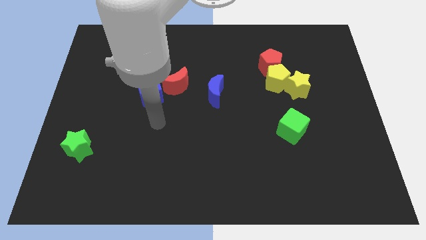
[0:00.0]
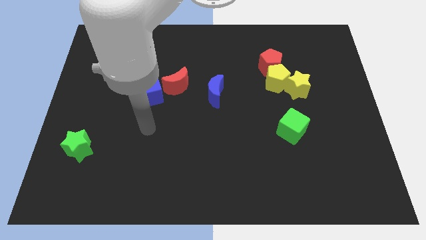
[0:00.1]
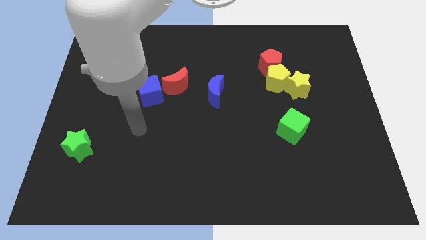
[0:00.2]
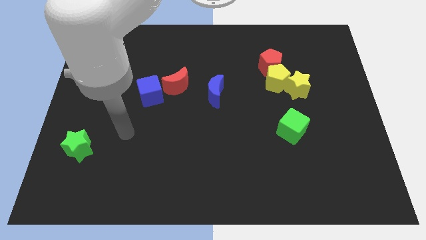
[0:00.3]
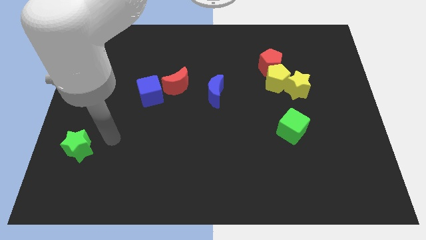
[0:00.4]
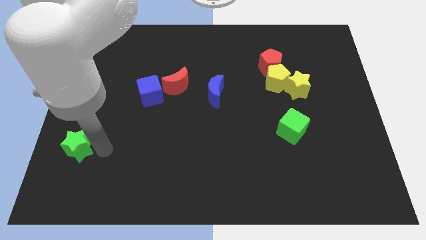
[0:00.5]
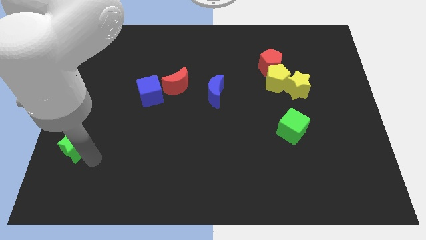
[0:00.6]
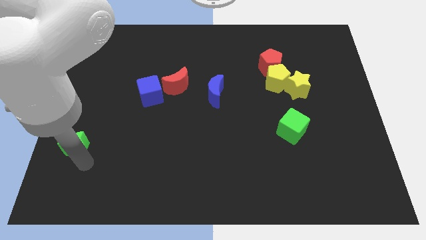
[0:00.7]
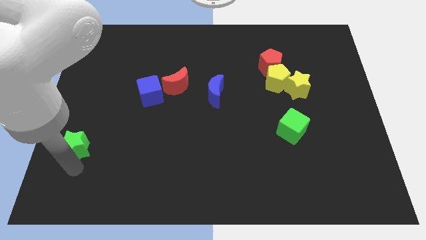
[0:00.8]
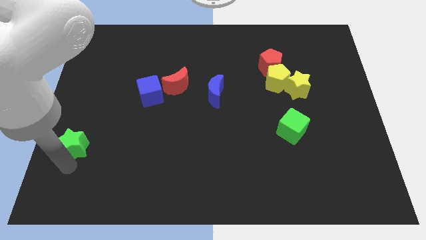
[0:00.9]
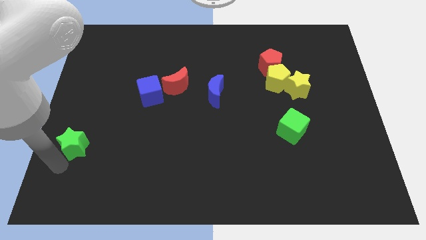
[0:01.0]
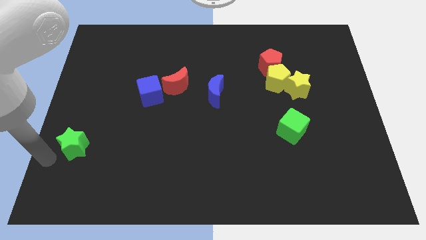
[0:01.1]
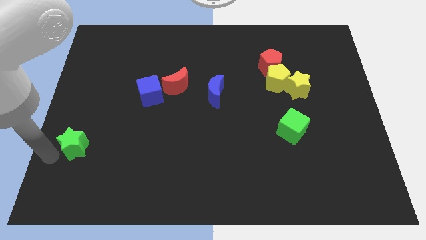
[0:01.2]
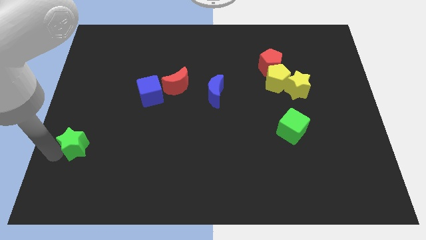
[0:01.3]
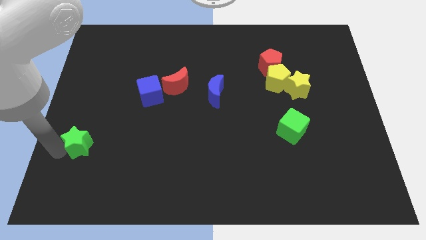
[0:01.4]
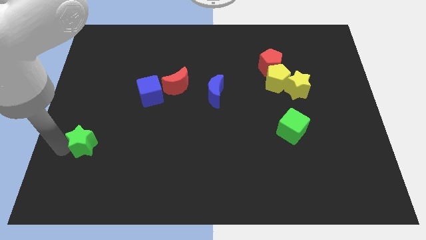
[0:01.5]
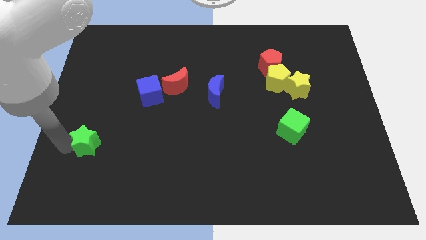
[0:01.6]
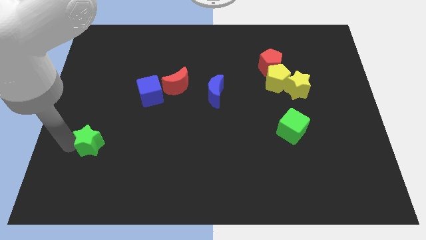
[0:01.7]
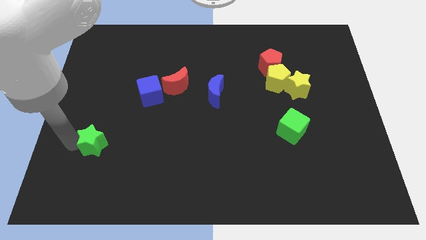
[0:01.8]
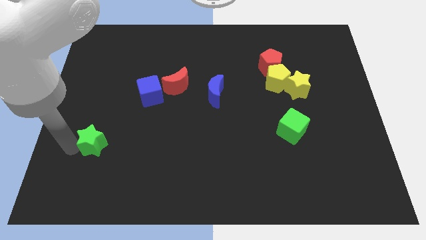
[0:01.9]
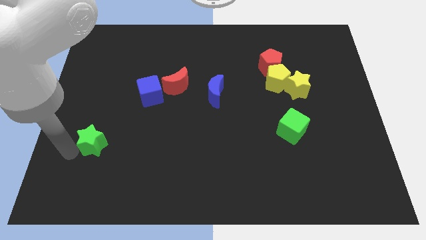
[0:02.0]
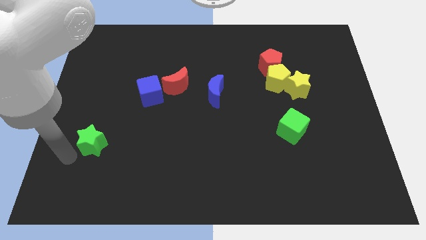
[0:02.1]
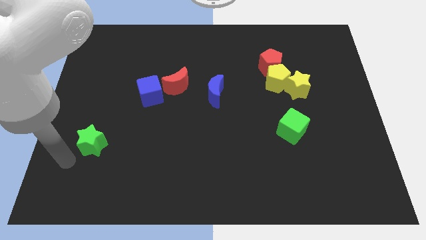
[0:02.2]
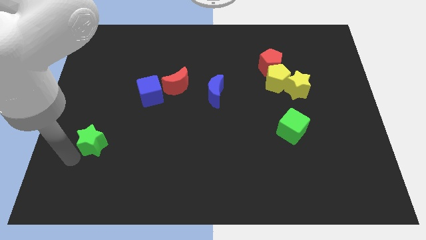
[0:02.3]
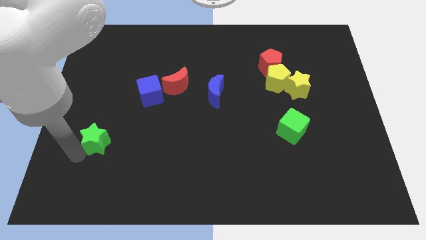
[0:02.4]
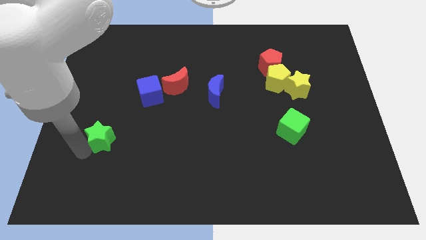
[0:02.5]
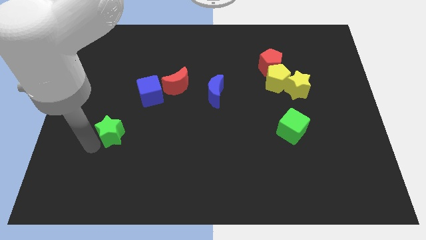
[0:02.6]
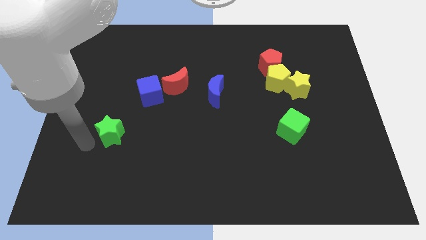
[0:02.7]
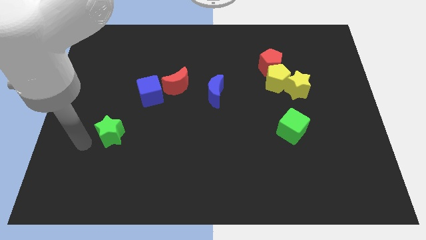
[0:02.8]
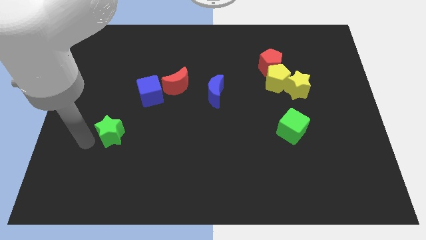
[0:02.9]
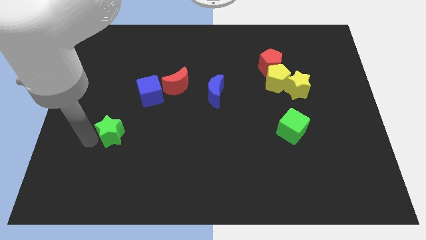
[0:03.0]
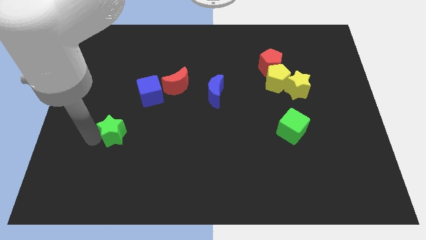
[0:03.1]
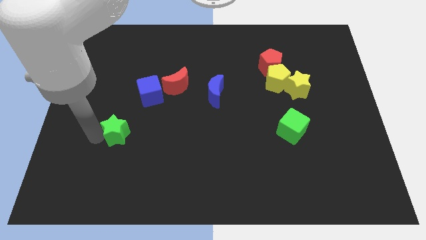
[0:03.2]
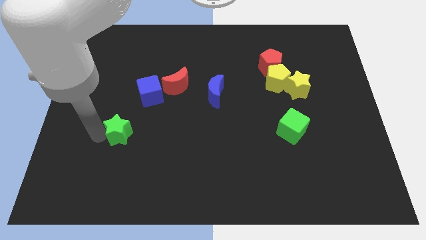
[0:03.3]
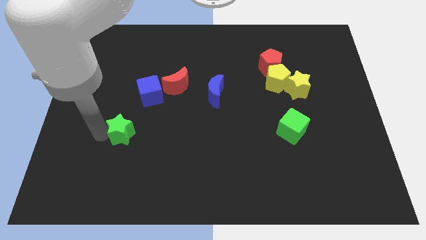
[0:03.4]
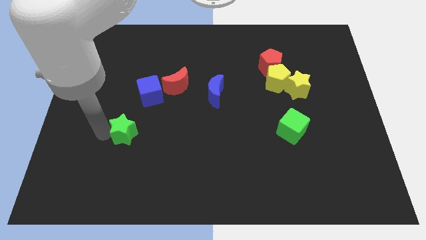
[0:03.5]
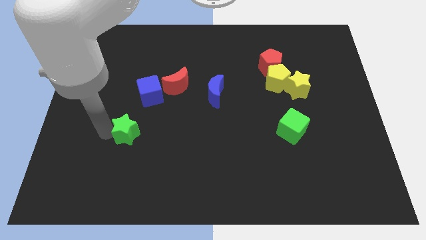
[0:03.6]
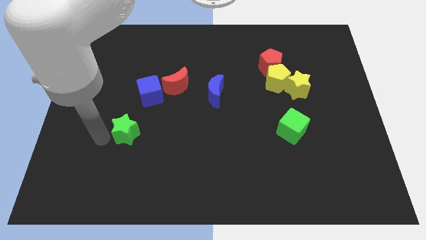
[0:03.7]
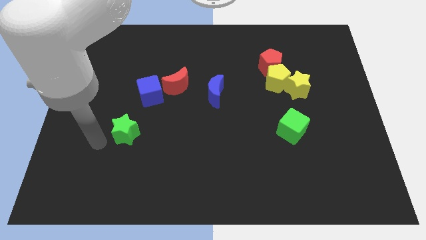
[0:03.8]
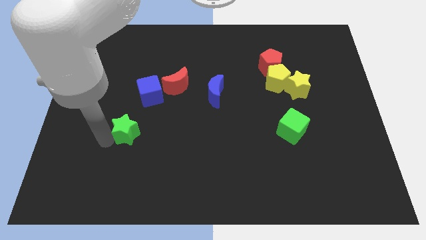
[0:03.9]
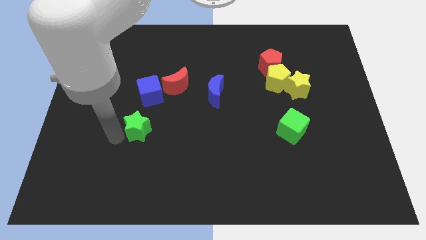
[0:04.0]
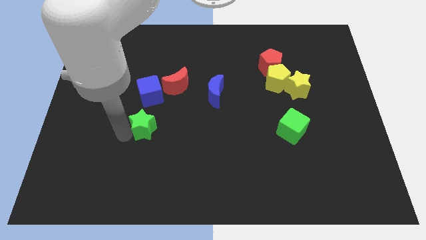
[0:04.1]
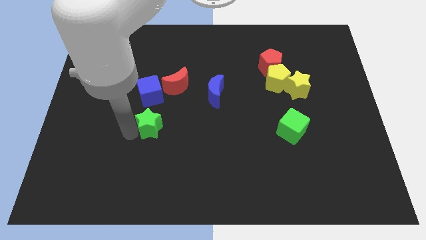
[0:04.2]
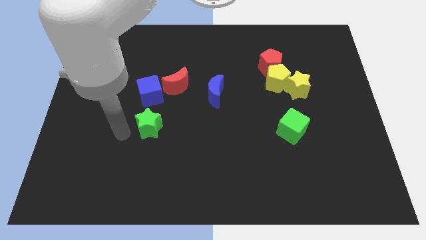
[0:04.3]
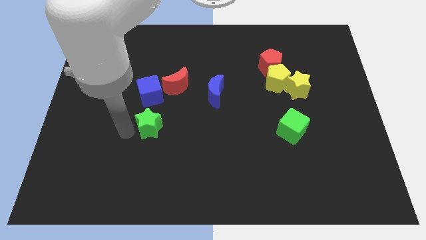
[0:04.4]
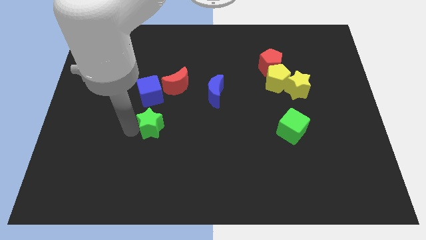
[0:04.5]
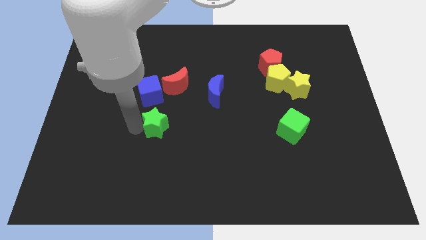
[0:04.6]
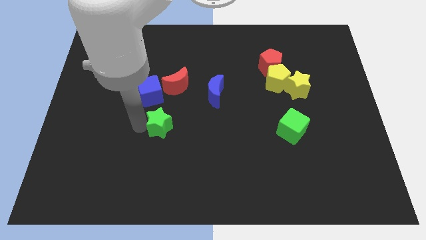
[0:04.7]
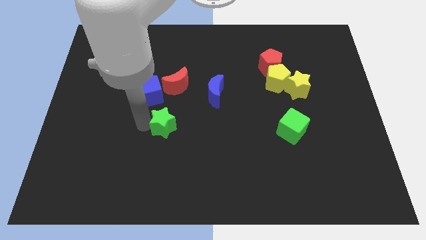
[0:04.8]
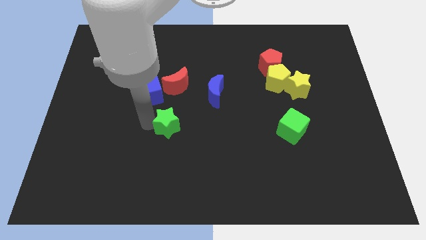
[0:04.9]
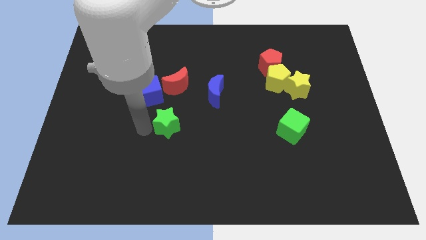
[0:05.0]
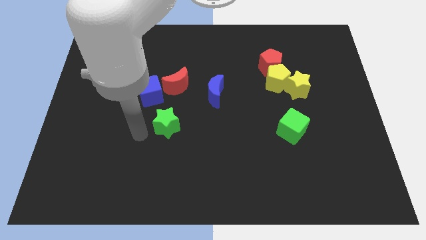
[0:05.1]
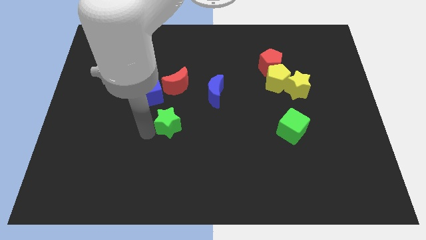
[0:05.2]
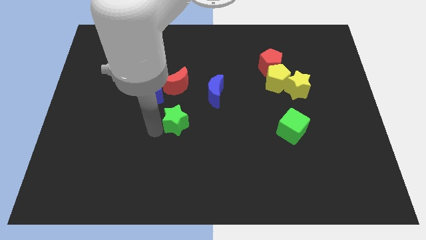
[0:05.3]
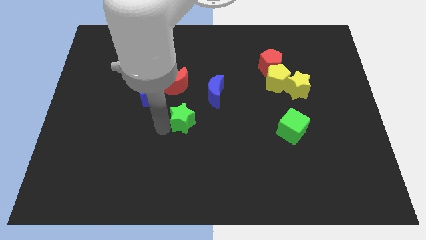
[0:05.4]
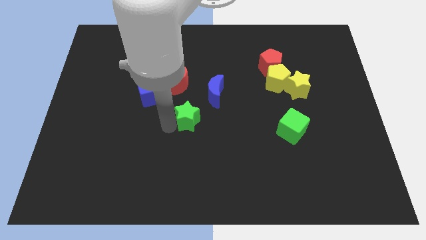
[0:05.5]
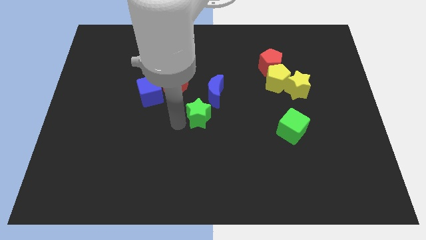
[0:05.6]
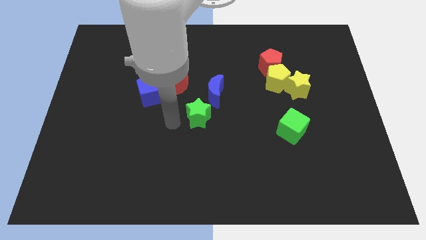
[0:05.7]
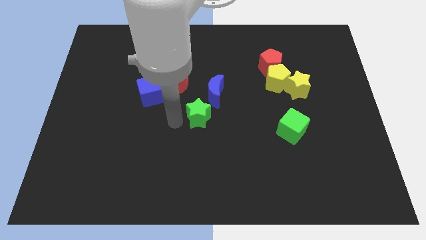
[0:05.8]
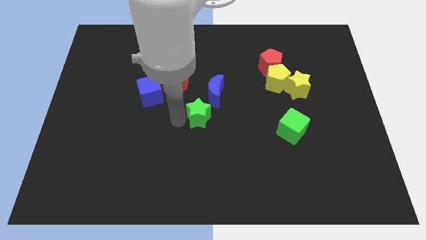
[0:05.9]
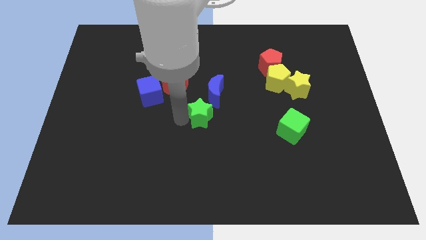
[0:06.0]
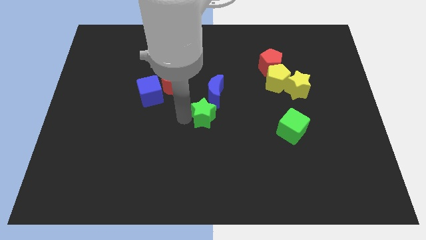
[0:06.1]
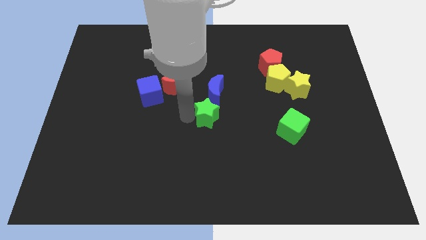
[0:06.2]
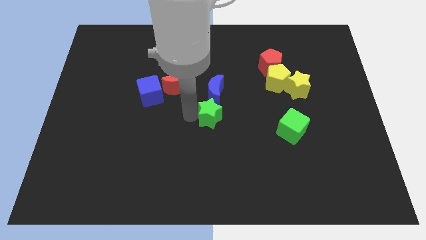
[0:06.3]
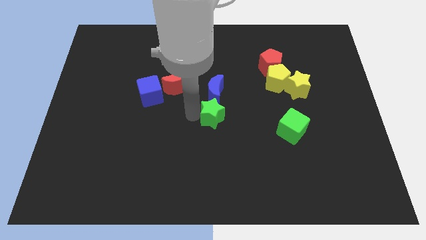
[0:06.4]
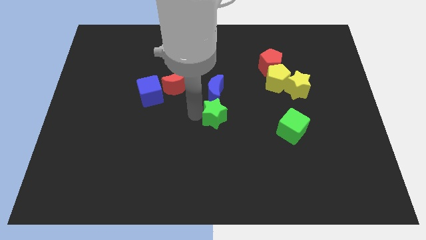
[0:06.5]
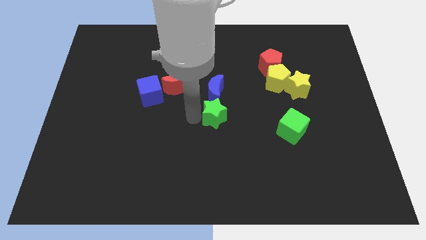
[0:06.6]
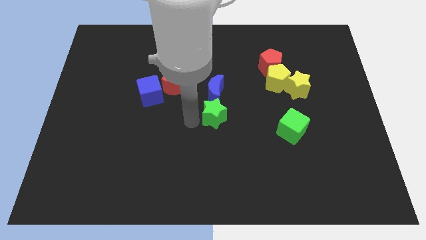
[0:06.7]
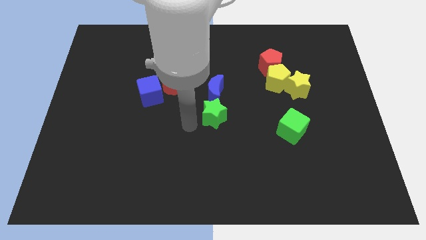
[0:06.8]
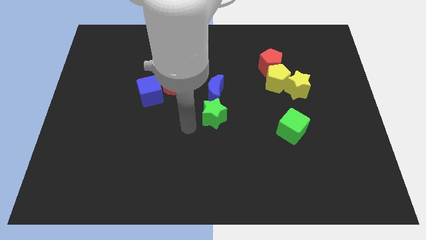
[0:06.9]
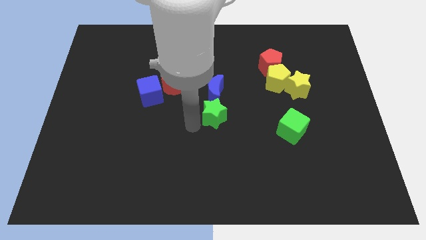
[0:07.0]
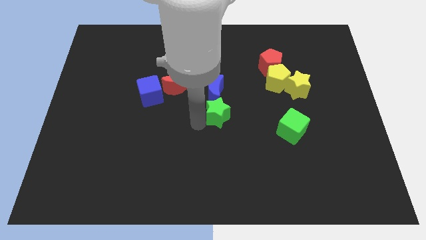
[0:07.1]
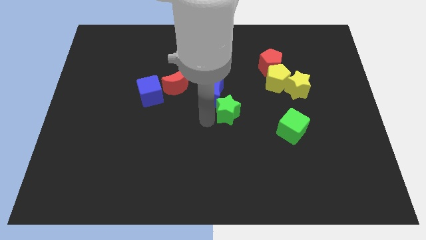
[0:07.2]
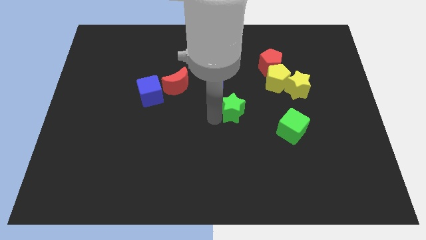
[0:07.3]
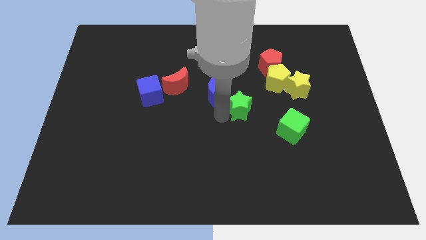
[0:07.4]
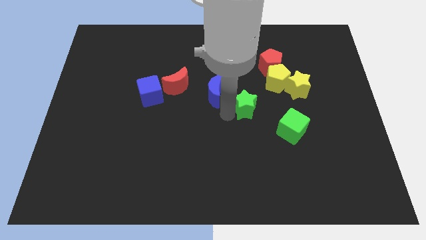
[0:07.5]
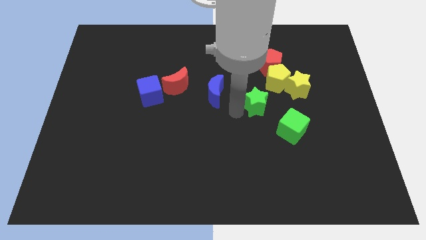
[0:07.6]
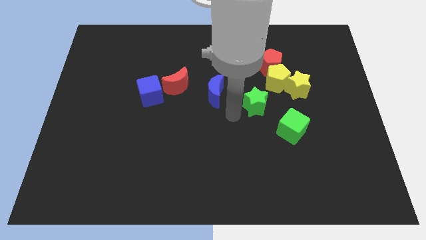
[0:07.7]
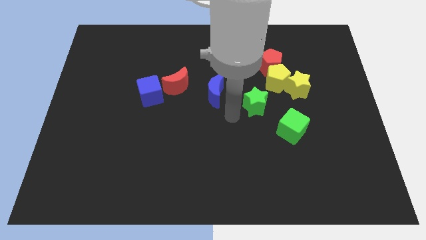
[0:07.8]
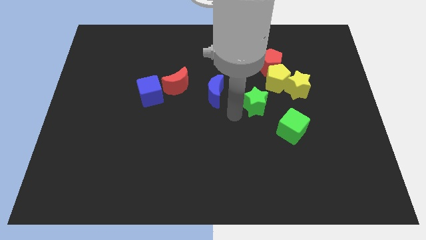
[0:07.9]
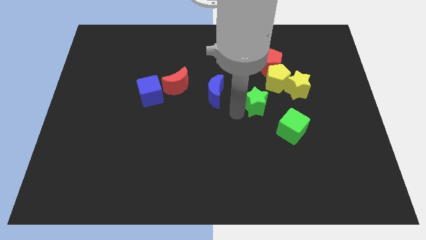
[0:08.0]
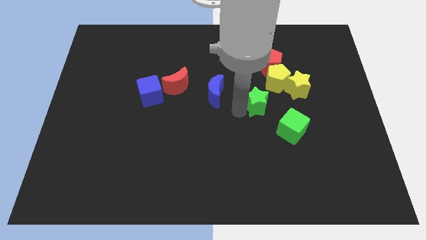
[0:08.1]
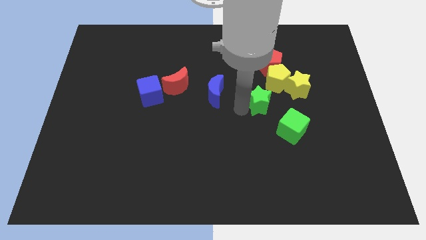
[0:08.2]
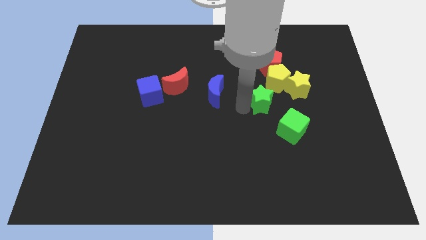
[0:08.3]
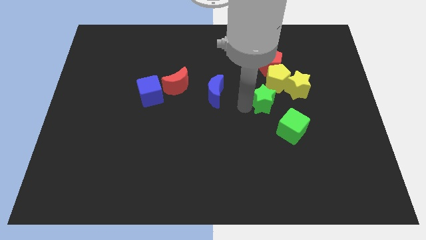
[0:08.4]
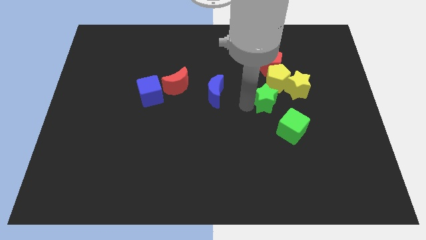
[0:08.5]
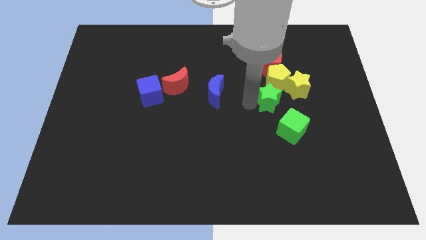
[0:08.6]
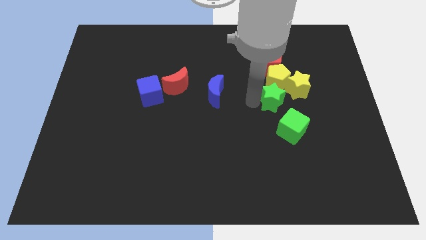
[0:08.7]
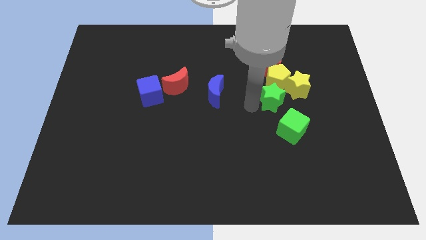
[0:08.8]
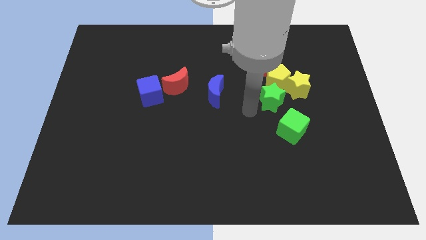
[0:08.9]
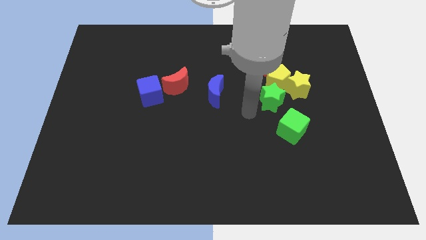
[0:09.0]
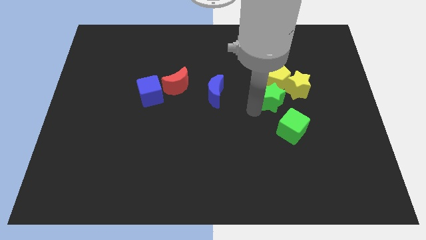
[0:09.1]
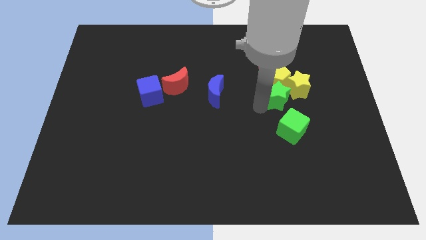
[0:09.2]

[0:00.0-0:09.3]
put the green star to the yellow star
